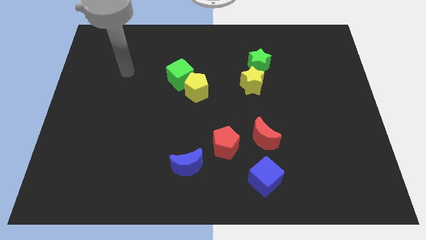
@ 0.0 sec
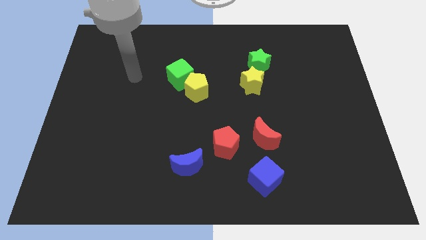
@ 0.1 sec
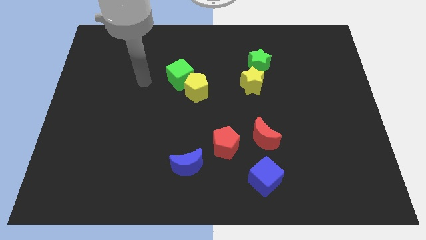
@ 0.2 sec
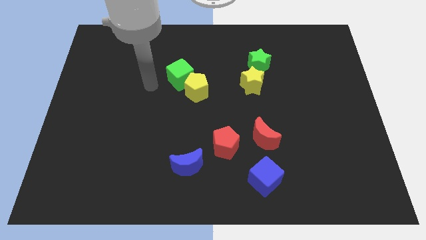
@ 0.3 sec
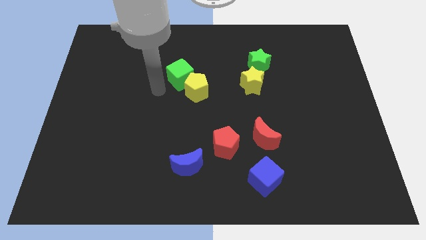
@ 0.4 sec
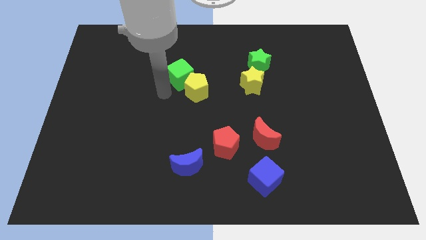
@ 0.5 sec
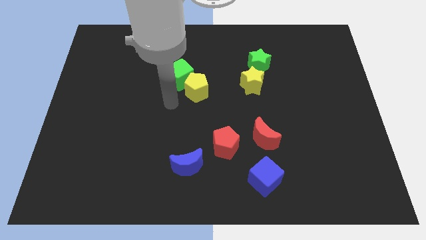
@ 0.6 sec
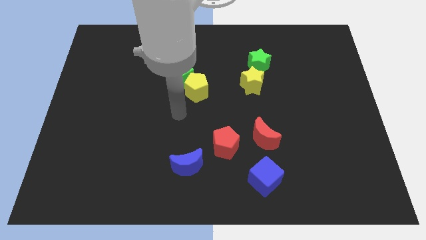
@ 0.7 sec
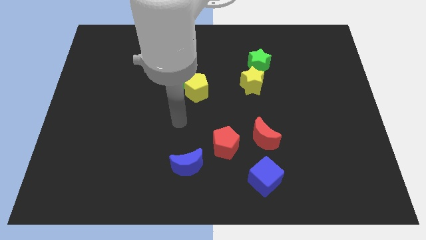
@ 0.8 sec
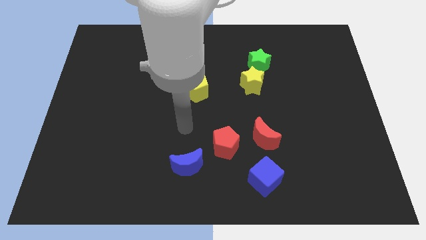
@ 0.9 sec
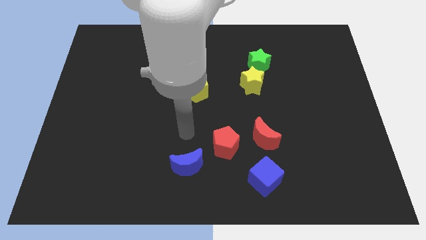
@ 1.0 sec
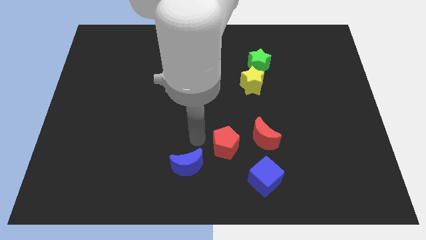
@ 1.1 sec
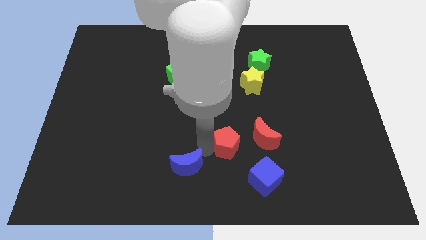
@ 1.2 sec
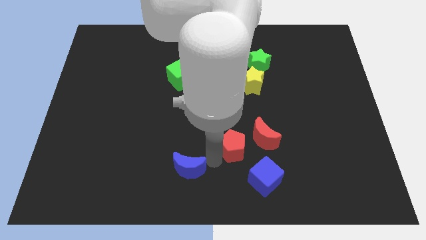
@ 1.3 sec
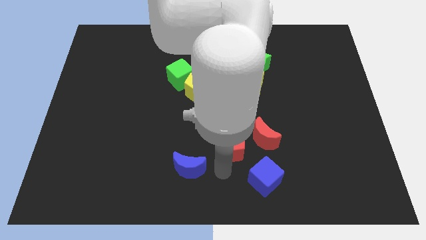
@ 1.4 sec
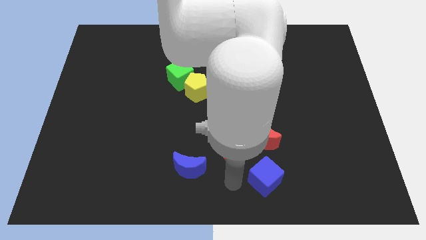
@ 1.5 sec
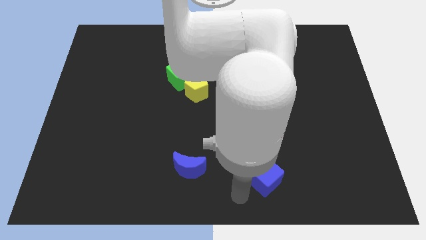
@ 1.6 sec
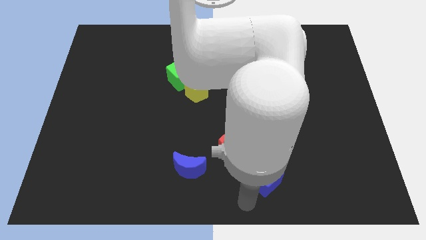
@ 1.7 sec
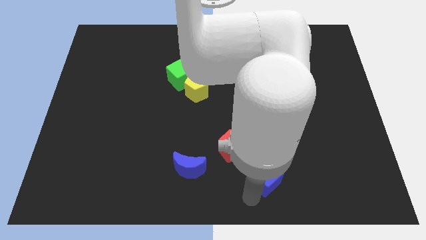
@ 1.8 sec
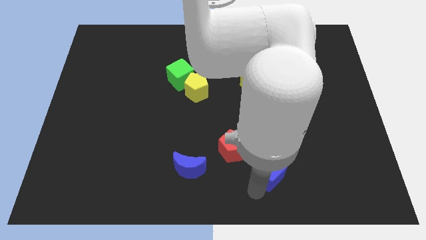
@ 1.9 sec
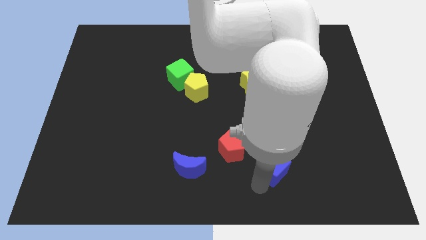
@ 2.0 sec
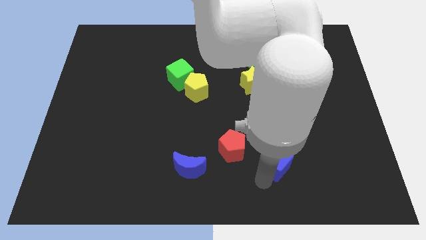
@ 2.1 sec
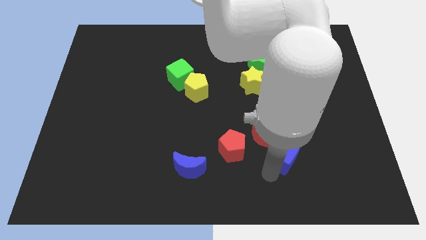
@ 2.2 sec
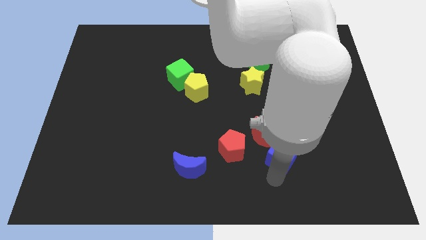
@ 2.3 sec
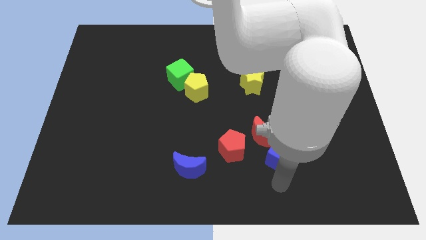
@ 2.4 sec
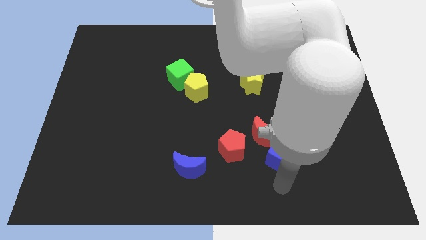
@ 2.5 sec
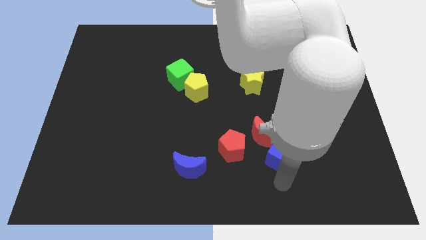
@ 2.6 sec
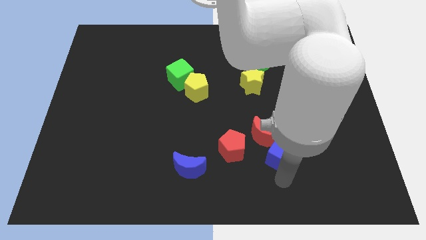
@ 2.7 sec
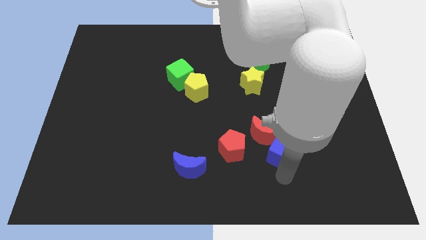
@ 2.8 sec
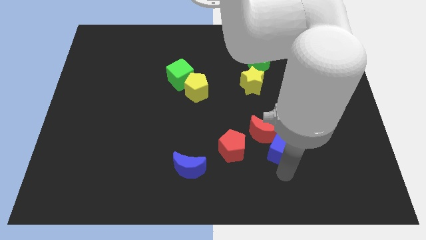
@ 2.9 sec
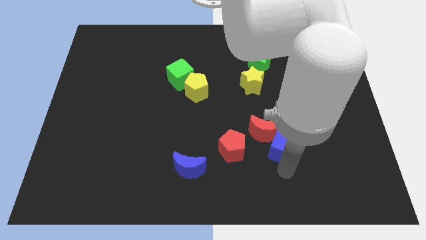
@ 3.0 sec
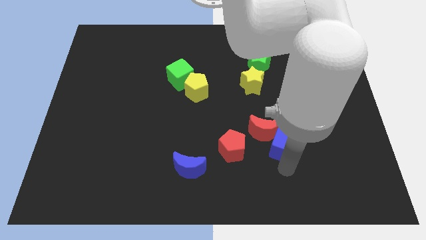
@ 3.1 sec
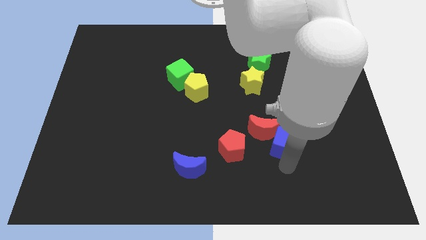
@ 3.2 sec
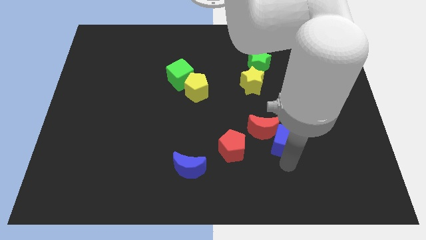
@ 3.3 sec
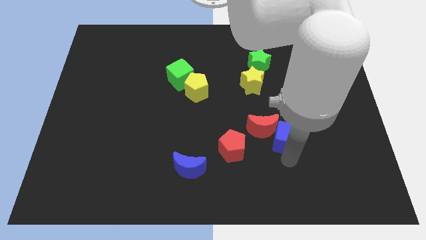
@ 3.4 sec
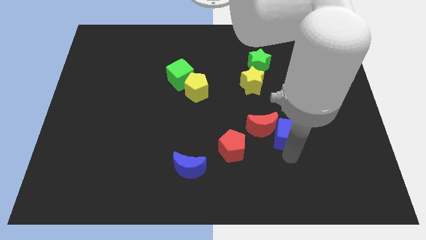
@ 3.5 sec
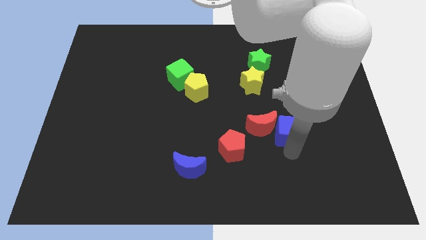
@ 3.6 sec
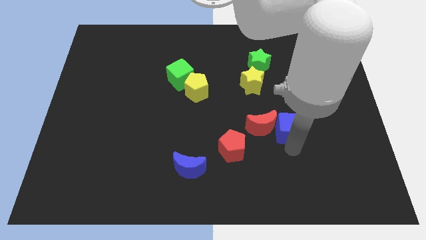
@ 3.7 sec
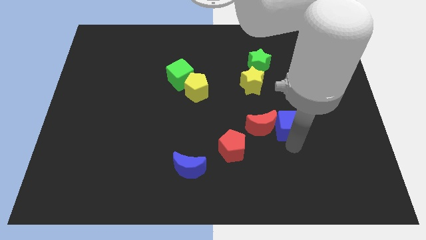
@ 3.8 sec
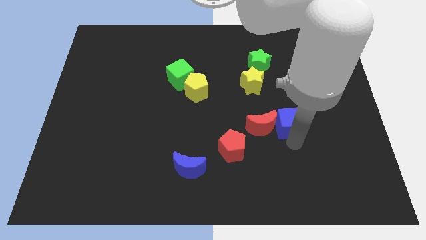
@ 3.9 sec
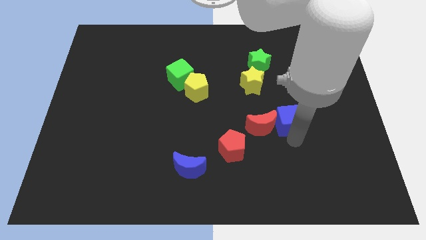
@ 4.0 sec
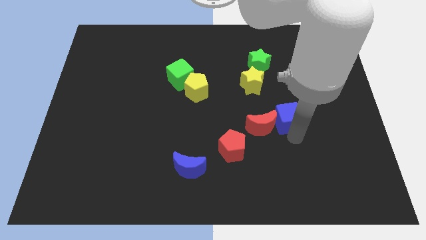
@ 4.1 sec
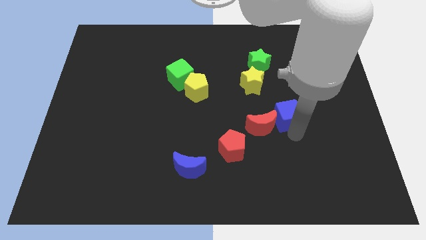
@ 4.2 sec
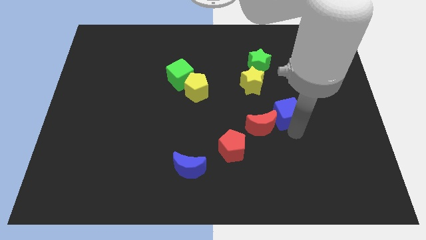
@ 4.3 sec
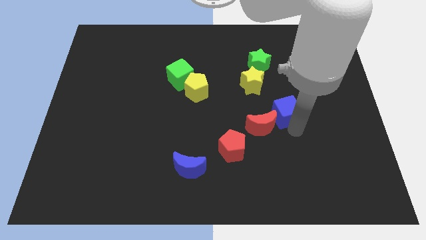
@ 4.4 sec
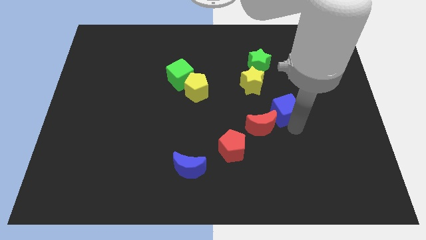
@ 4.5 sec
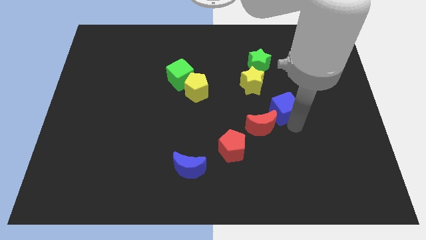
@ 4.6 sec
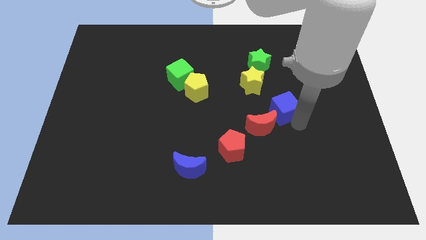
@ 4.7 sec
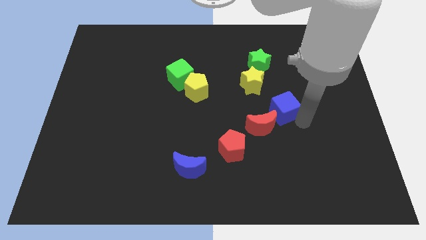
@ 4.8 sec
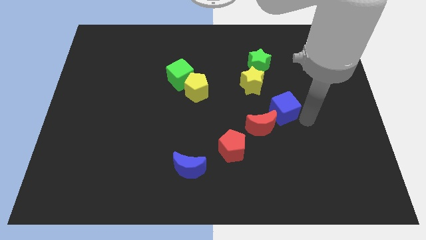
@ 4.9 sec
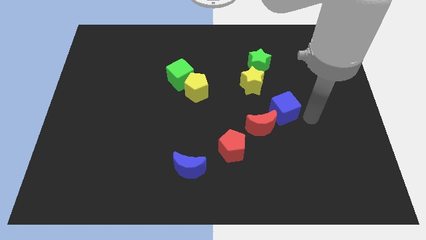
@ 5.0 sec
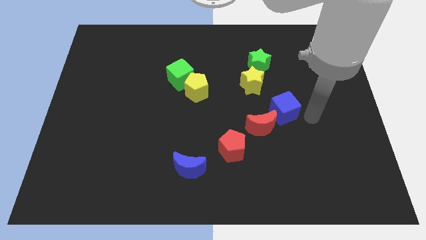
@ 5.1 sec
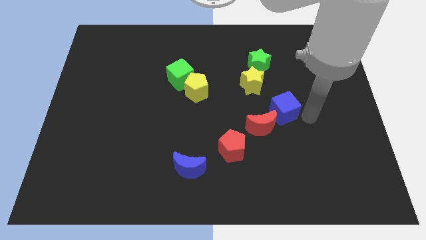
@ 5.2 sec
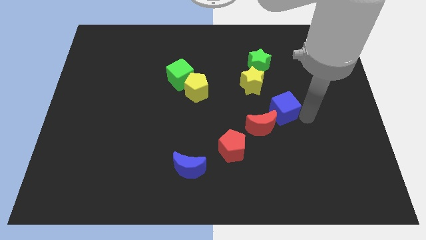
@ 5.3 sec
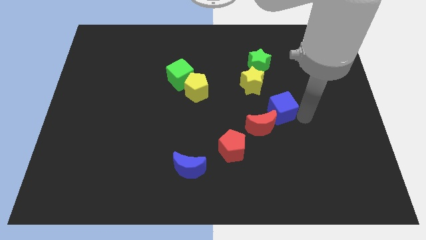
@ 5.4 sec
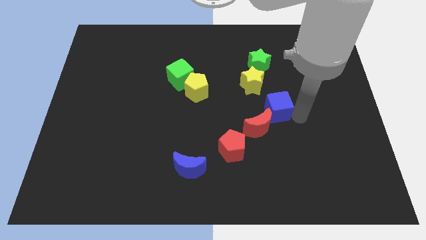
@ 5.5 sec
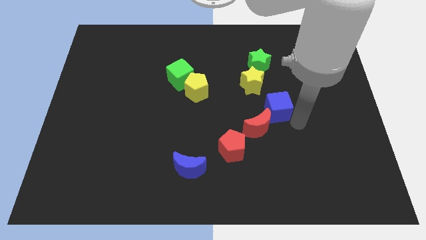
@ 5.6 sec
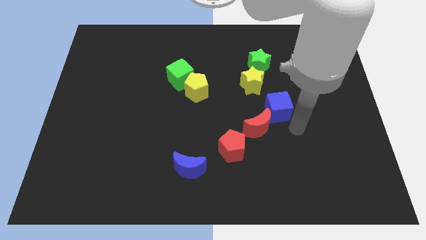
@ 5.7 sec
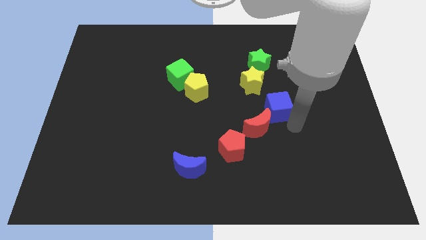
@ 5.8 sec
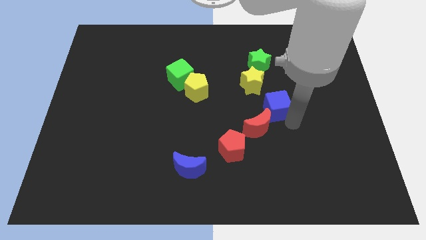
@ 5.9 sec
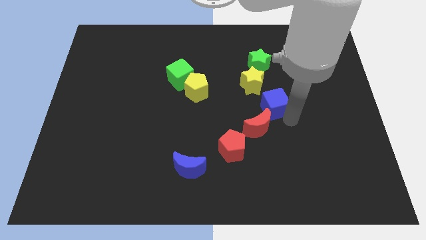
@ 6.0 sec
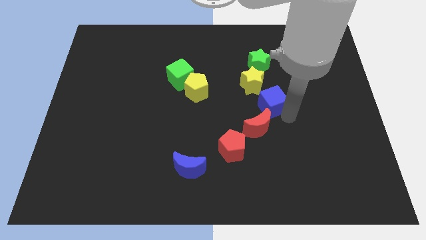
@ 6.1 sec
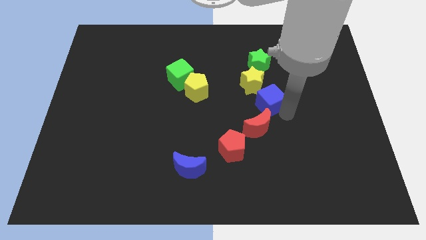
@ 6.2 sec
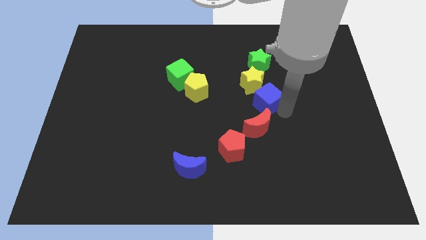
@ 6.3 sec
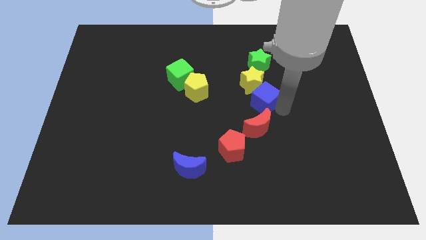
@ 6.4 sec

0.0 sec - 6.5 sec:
push the blue cube towards the yellow star

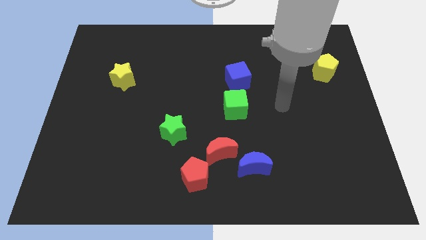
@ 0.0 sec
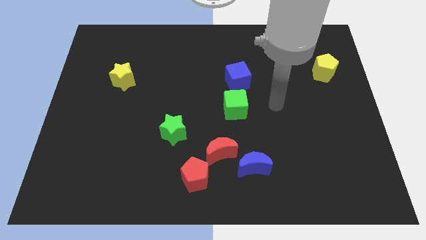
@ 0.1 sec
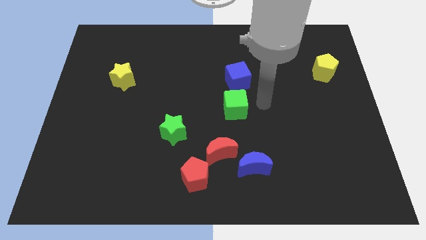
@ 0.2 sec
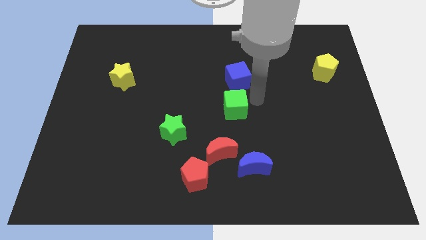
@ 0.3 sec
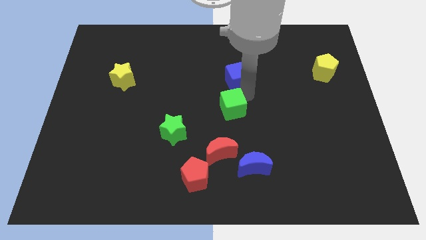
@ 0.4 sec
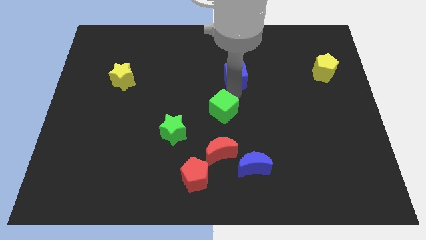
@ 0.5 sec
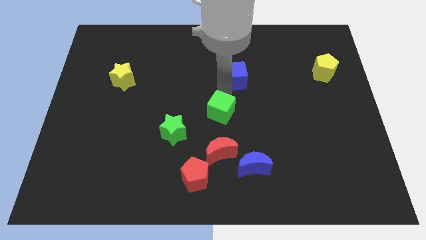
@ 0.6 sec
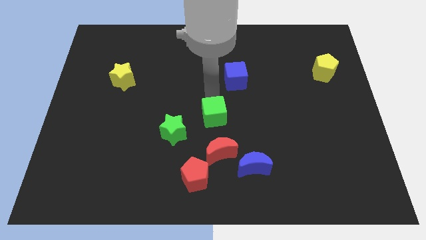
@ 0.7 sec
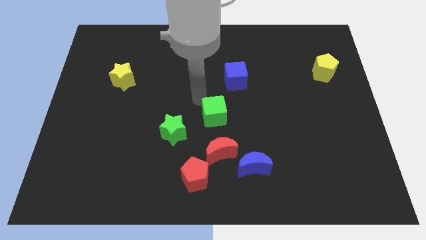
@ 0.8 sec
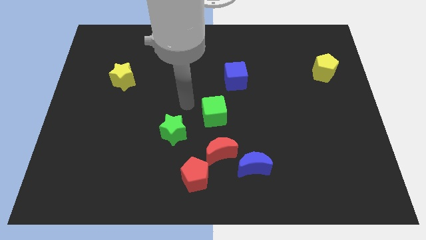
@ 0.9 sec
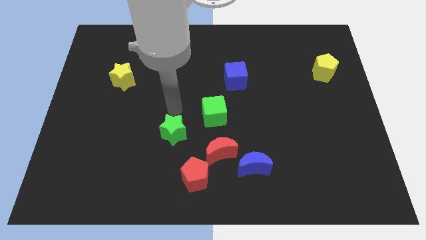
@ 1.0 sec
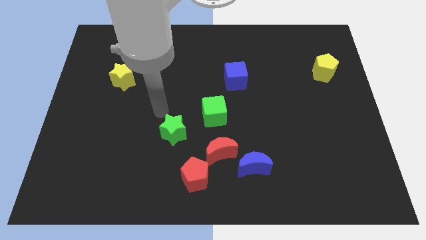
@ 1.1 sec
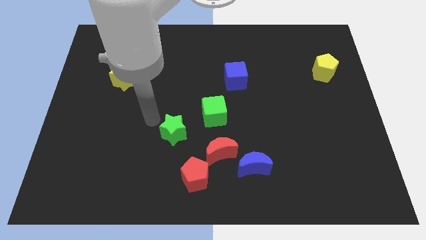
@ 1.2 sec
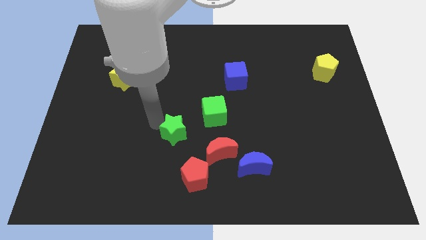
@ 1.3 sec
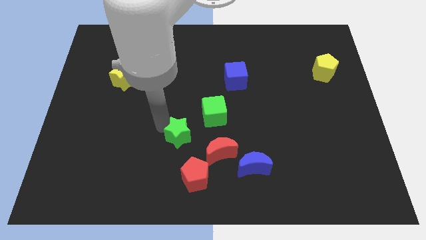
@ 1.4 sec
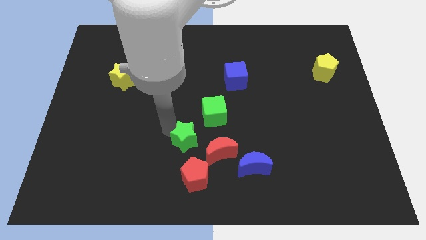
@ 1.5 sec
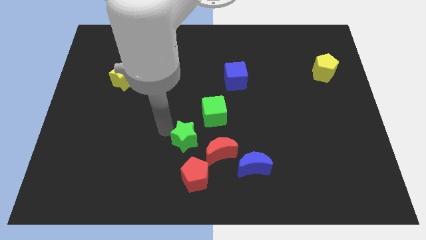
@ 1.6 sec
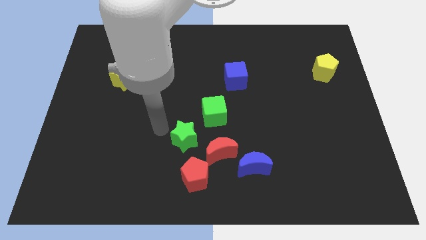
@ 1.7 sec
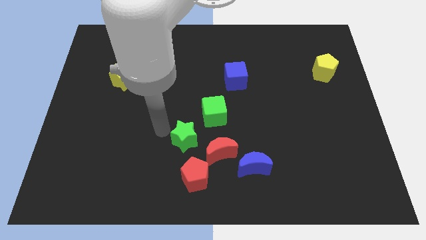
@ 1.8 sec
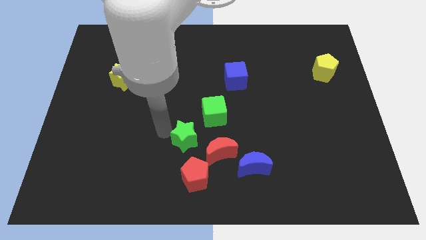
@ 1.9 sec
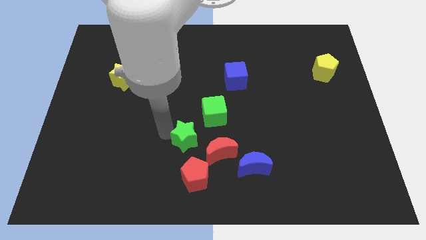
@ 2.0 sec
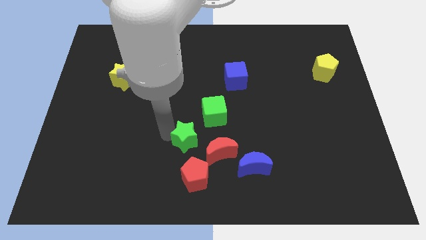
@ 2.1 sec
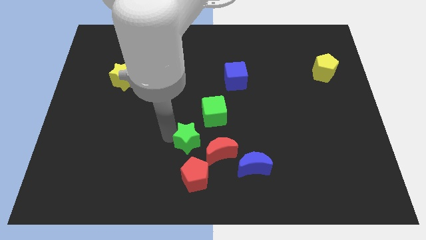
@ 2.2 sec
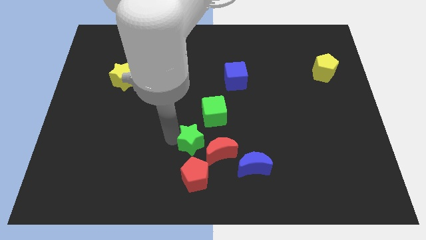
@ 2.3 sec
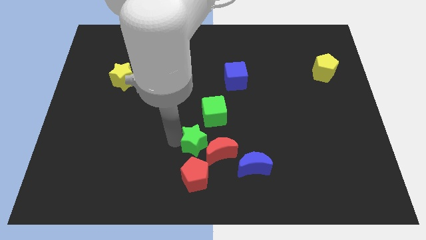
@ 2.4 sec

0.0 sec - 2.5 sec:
move the green star towards the red moon
